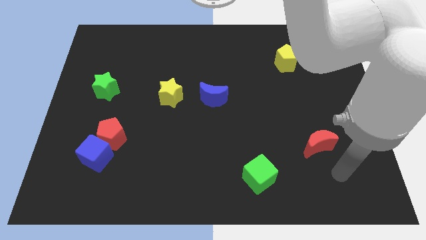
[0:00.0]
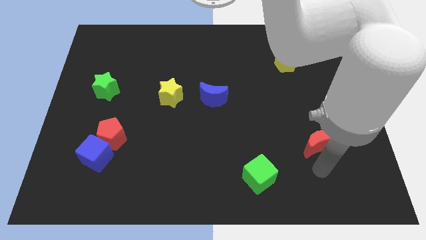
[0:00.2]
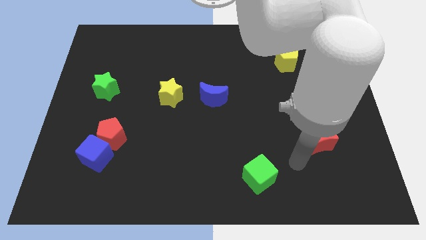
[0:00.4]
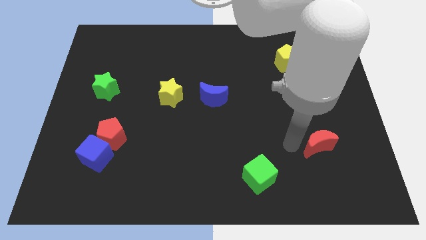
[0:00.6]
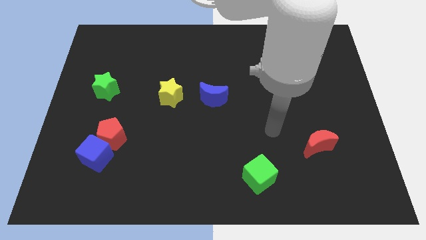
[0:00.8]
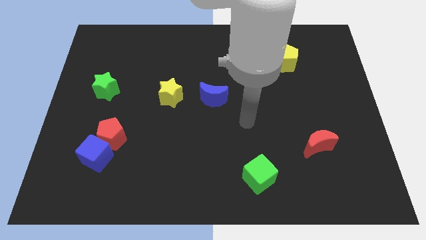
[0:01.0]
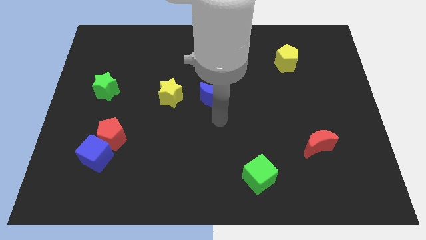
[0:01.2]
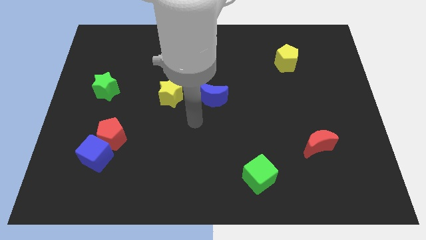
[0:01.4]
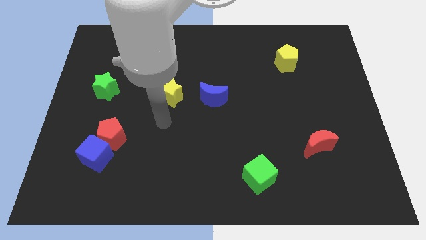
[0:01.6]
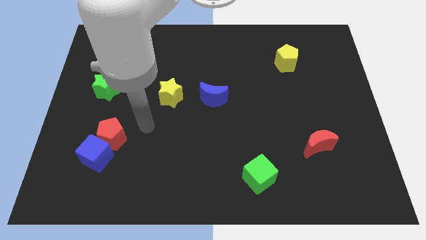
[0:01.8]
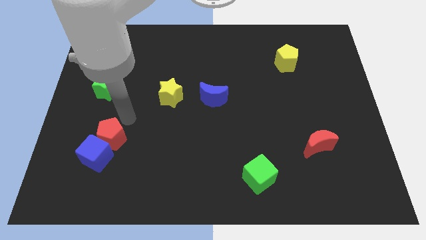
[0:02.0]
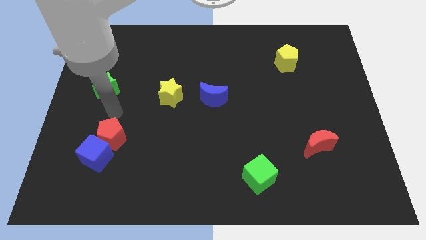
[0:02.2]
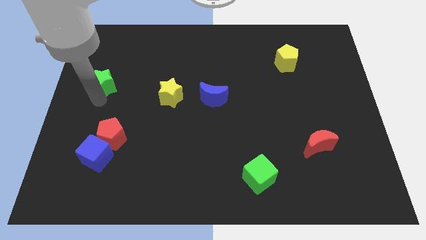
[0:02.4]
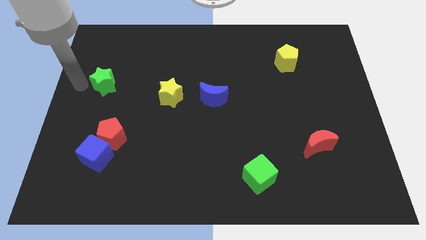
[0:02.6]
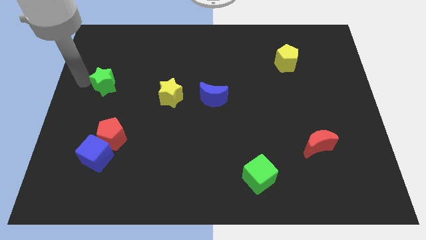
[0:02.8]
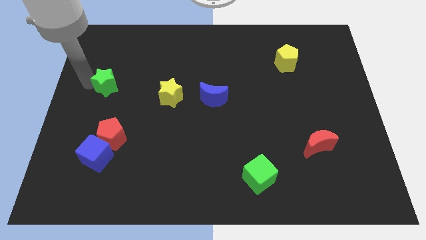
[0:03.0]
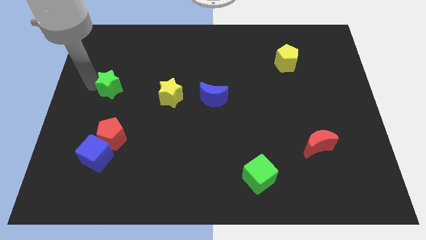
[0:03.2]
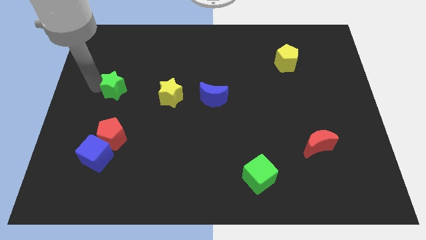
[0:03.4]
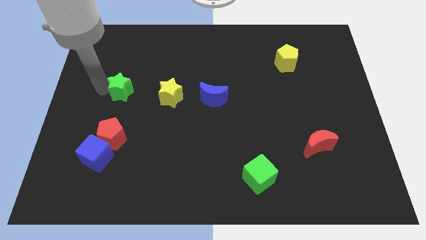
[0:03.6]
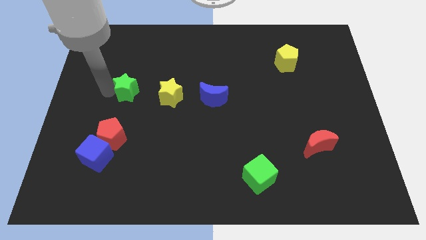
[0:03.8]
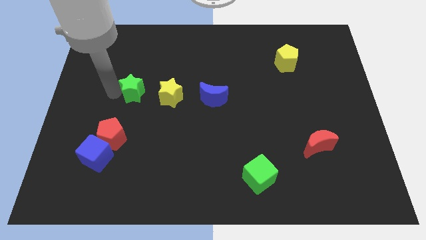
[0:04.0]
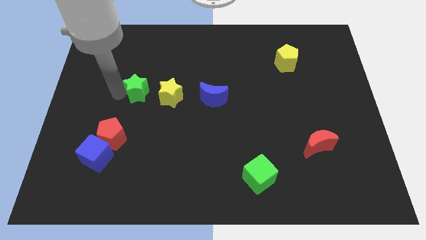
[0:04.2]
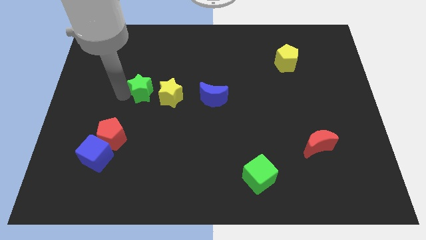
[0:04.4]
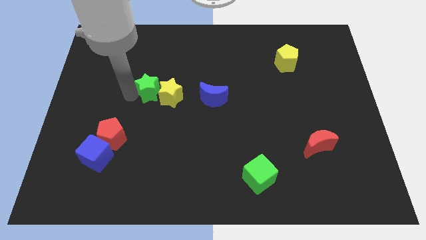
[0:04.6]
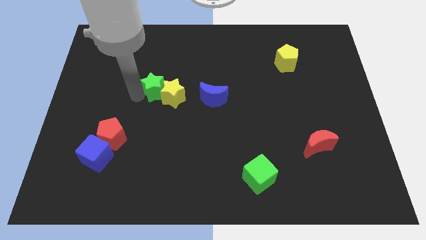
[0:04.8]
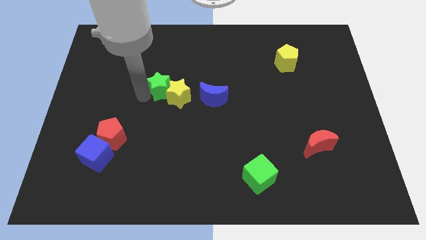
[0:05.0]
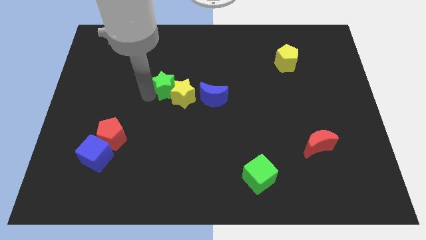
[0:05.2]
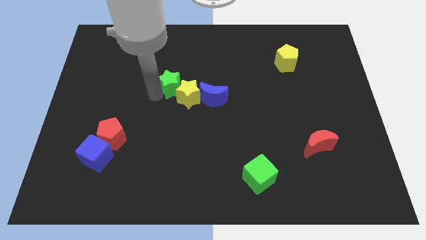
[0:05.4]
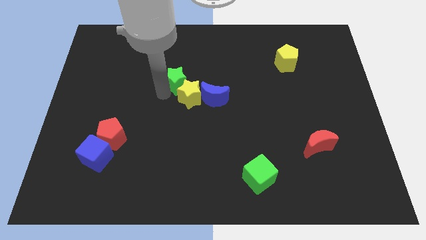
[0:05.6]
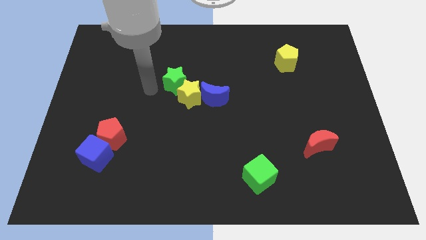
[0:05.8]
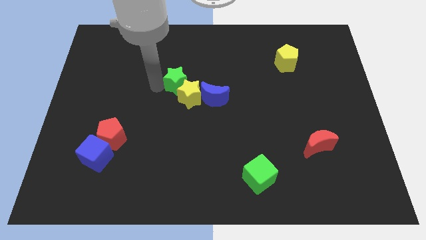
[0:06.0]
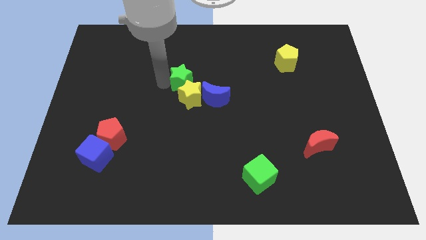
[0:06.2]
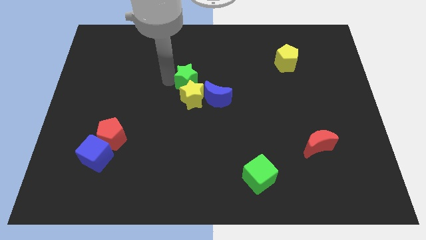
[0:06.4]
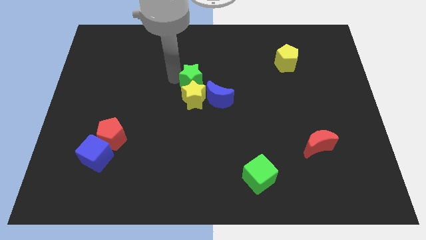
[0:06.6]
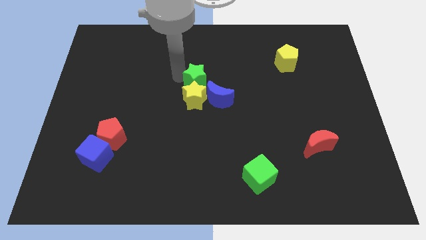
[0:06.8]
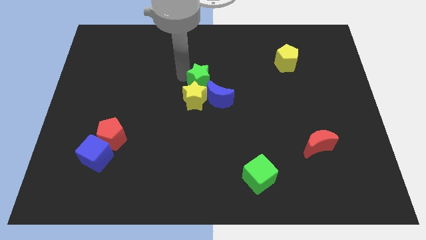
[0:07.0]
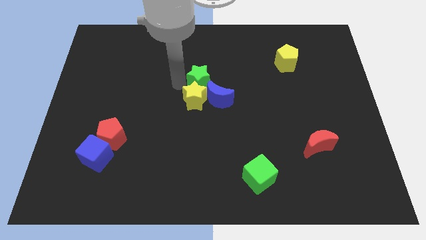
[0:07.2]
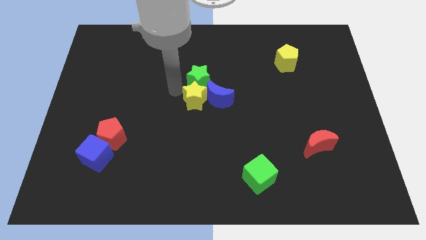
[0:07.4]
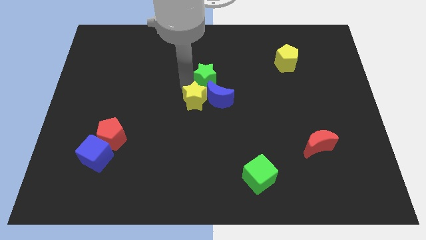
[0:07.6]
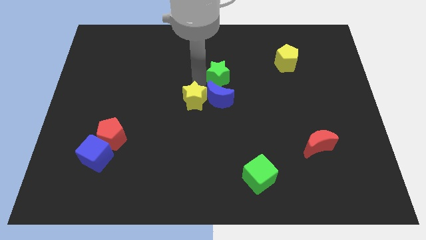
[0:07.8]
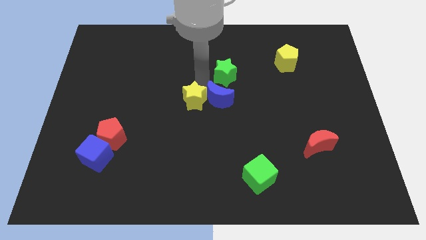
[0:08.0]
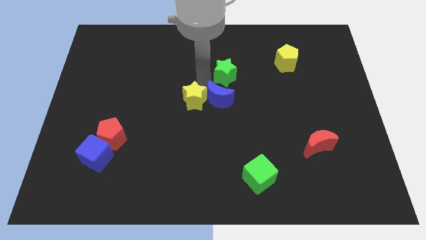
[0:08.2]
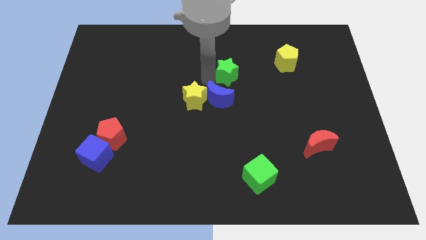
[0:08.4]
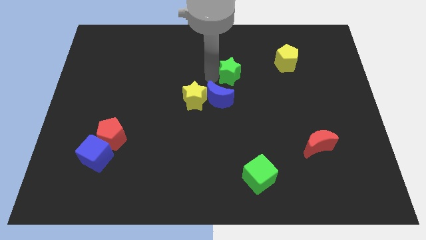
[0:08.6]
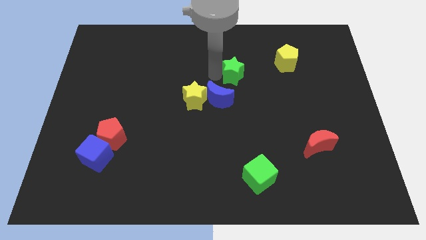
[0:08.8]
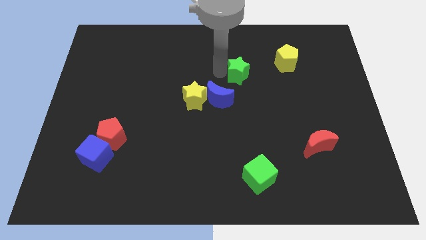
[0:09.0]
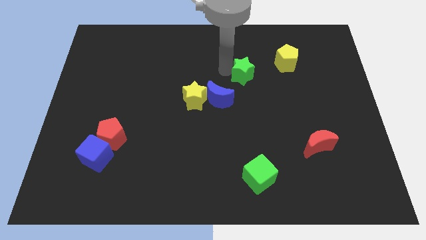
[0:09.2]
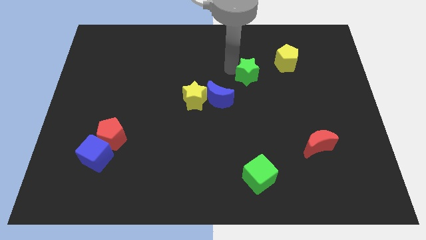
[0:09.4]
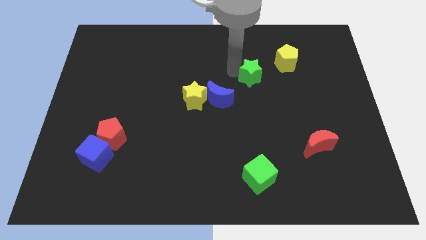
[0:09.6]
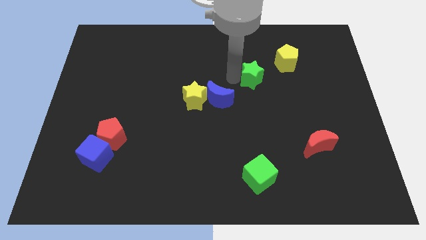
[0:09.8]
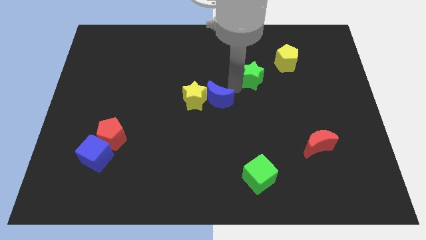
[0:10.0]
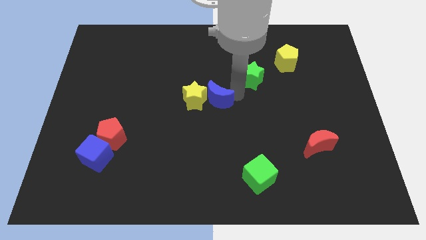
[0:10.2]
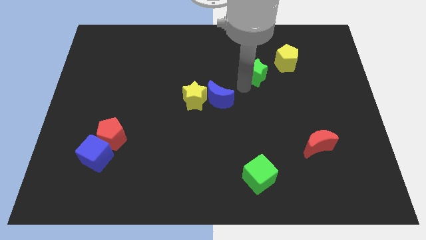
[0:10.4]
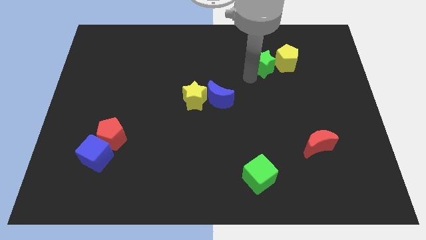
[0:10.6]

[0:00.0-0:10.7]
move the green star next to the yellow pentagon

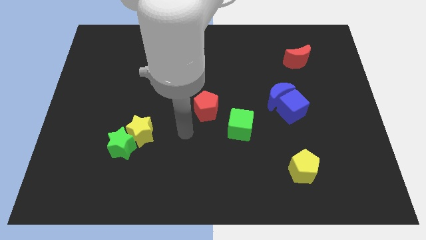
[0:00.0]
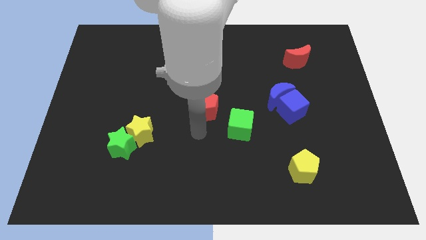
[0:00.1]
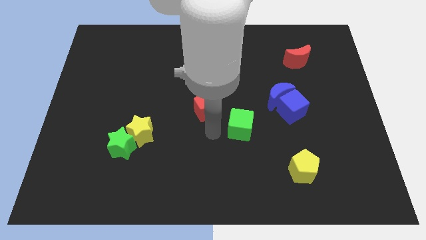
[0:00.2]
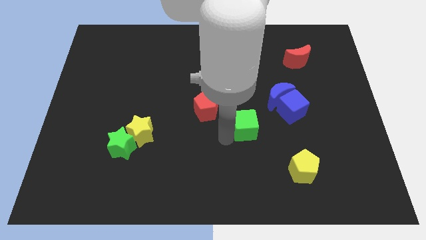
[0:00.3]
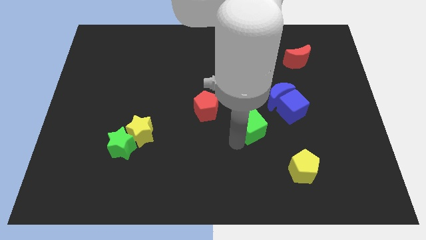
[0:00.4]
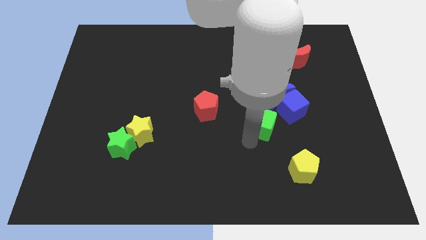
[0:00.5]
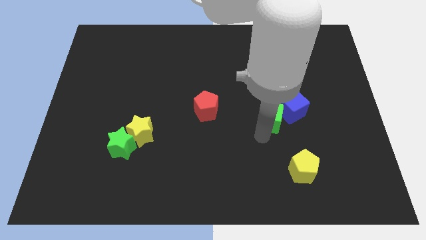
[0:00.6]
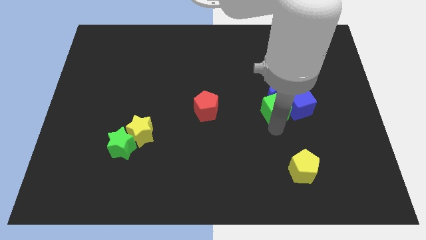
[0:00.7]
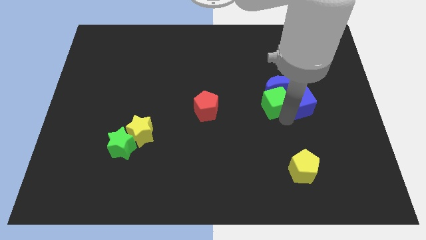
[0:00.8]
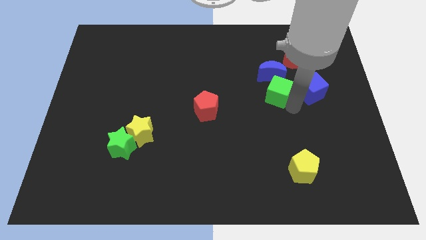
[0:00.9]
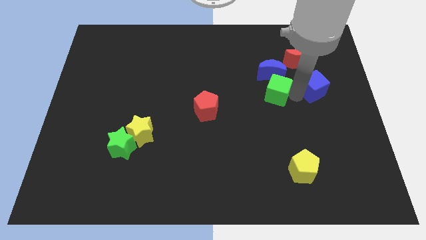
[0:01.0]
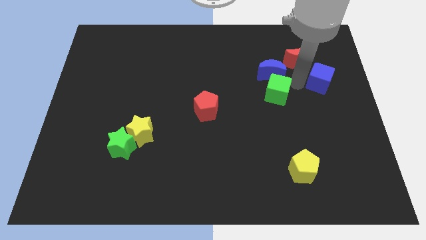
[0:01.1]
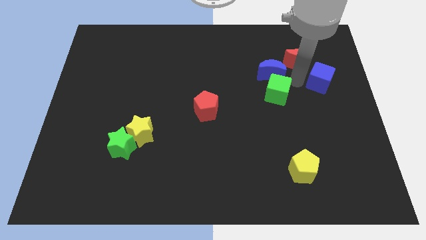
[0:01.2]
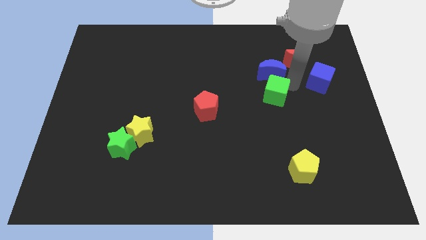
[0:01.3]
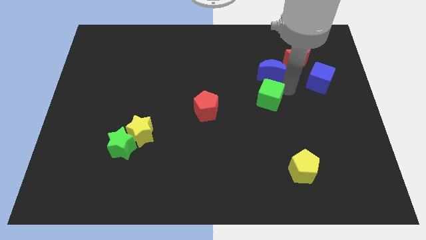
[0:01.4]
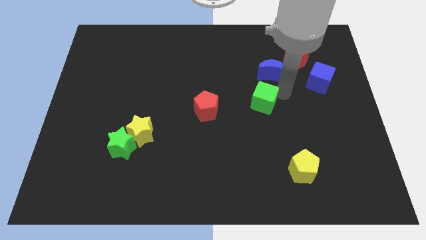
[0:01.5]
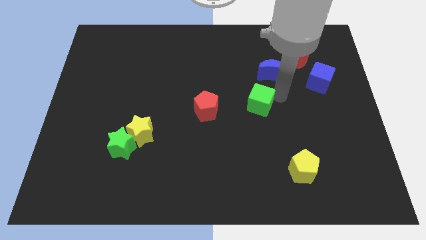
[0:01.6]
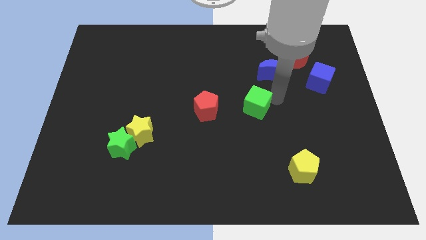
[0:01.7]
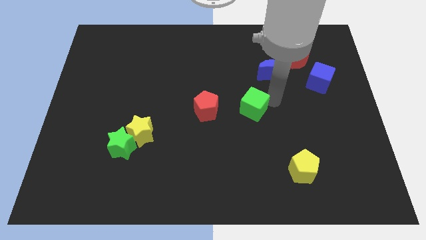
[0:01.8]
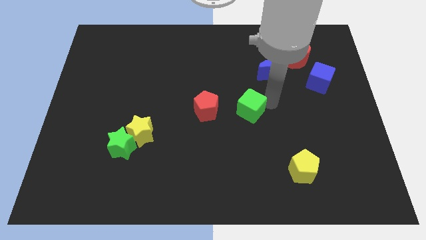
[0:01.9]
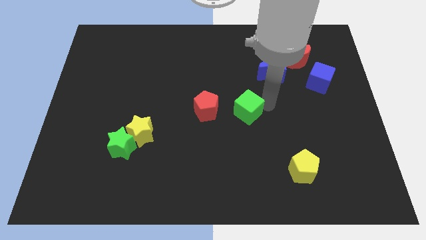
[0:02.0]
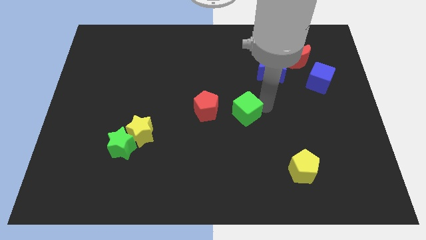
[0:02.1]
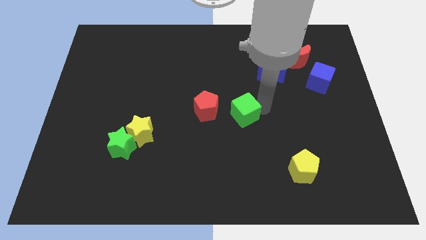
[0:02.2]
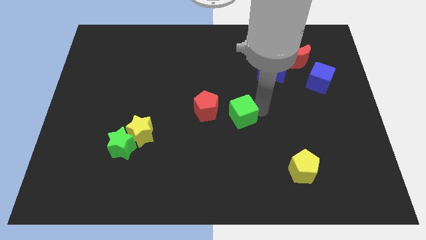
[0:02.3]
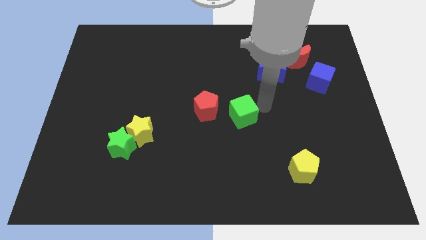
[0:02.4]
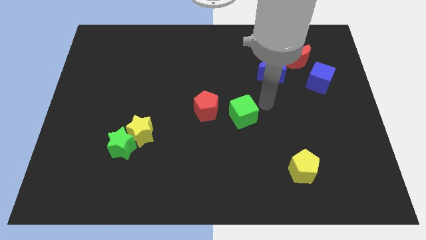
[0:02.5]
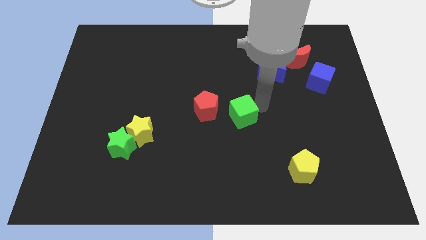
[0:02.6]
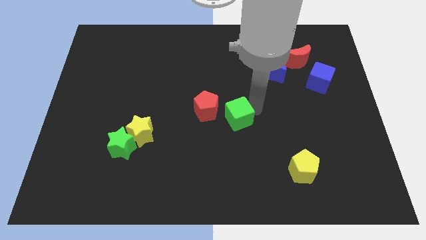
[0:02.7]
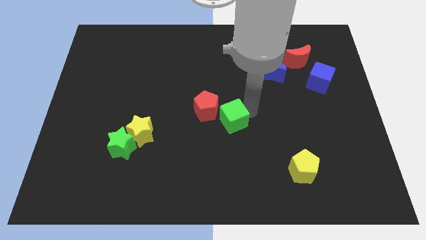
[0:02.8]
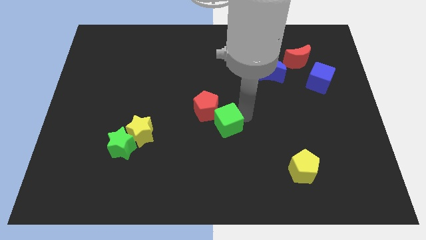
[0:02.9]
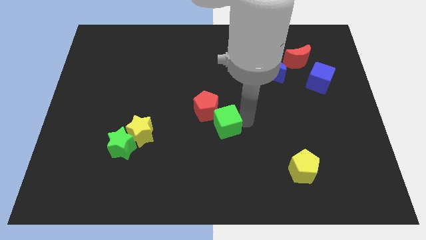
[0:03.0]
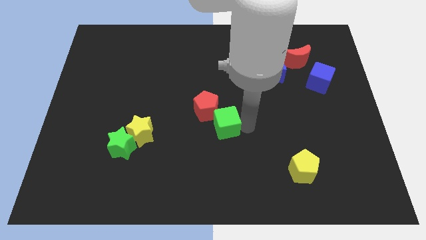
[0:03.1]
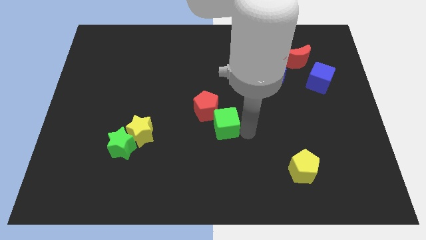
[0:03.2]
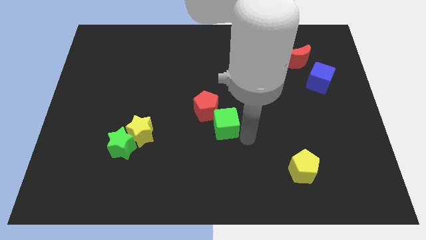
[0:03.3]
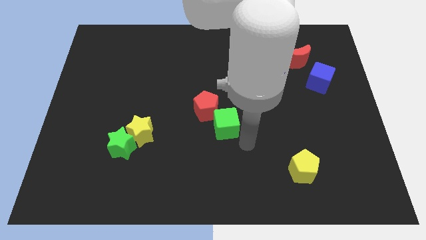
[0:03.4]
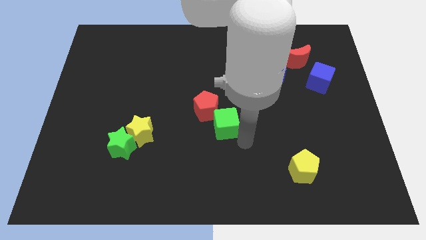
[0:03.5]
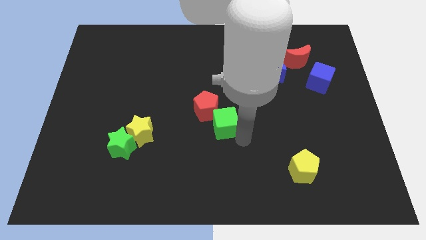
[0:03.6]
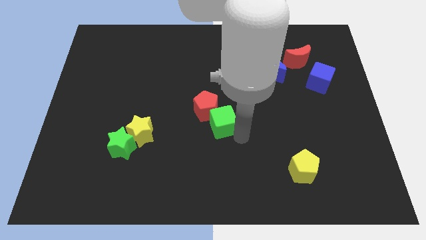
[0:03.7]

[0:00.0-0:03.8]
move the green cube towards the red pentagon
